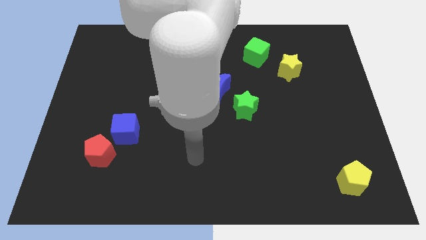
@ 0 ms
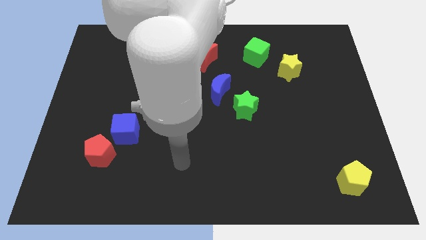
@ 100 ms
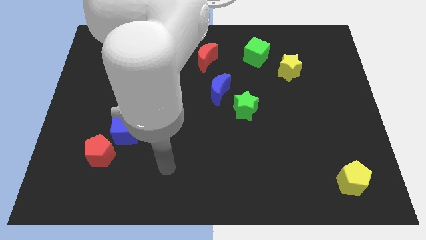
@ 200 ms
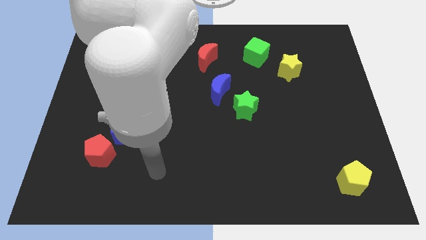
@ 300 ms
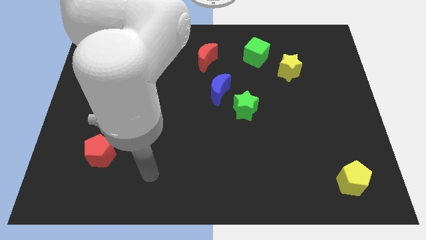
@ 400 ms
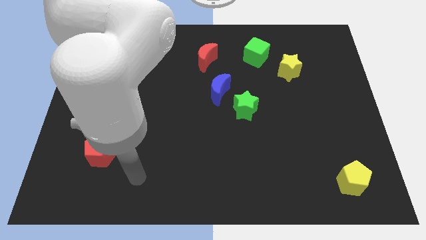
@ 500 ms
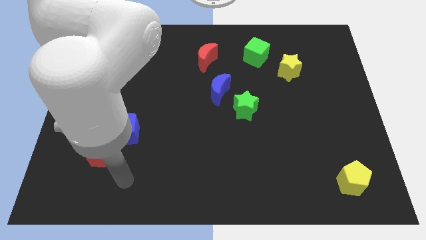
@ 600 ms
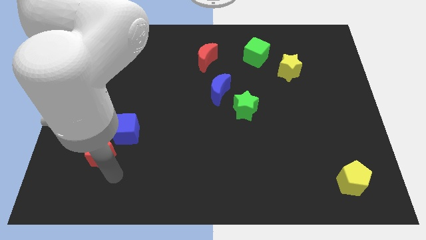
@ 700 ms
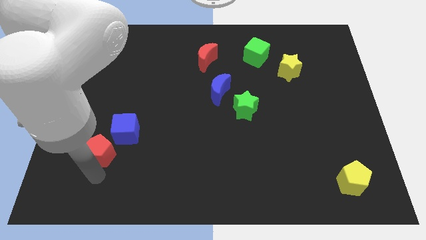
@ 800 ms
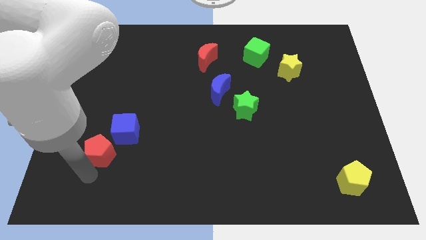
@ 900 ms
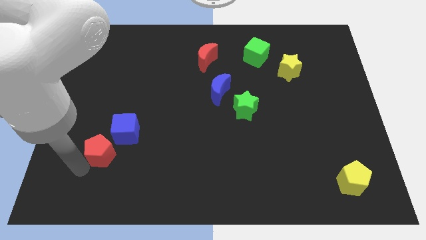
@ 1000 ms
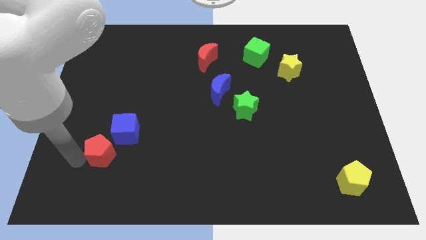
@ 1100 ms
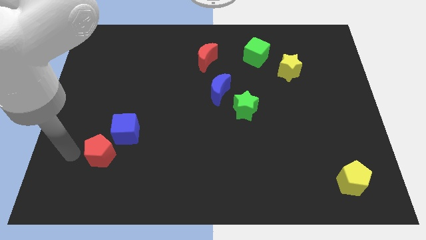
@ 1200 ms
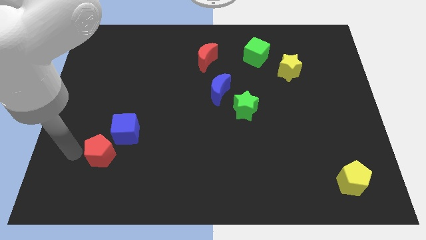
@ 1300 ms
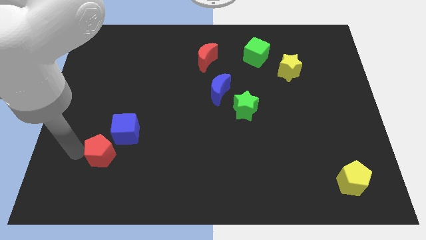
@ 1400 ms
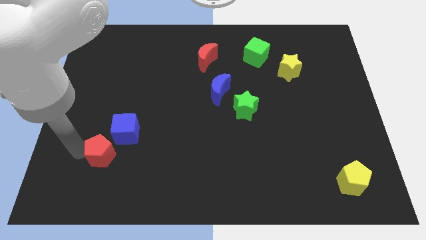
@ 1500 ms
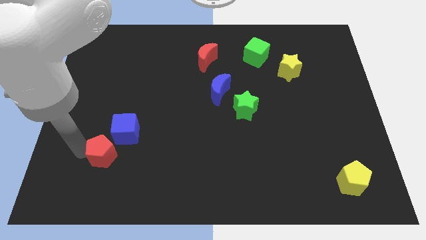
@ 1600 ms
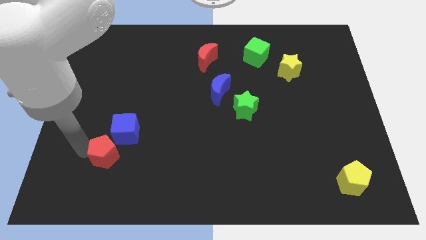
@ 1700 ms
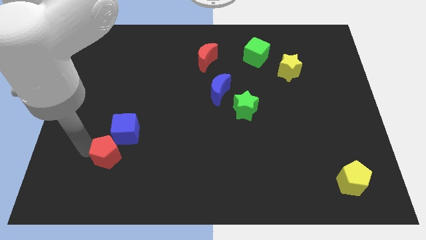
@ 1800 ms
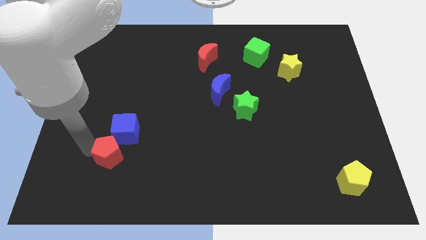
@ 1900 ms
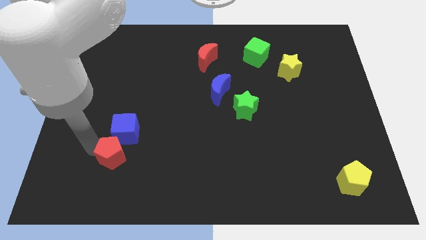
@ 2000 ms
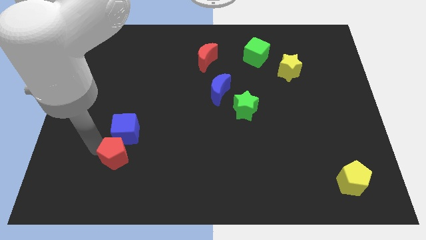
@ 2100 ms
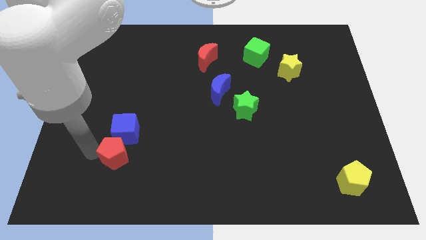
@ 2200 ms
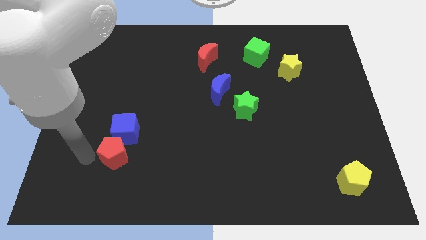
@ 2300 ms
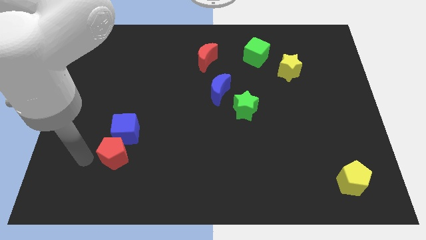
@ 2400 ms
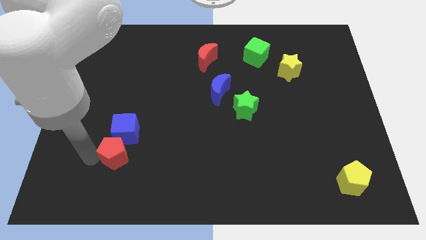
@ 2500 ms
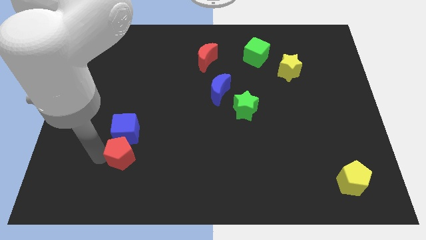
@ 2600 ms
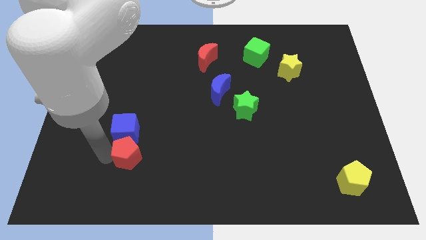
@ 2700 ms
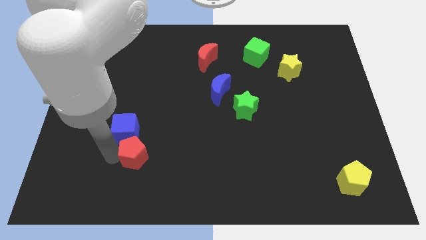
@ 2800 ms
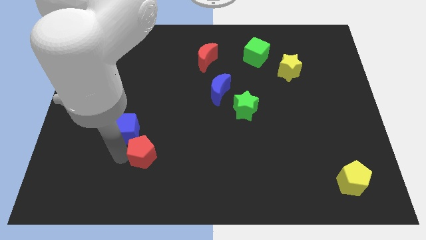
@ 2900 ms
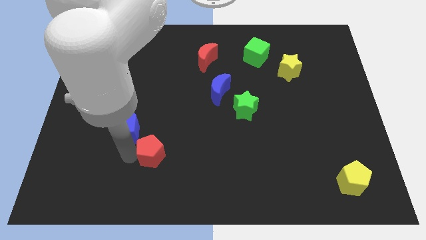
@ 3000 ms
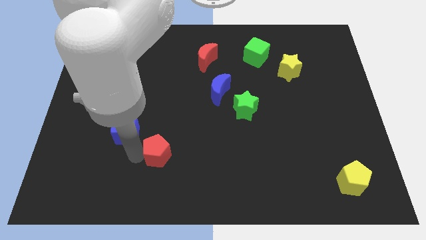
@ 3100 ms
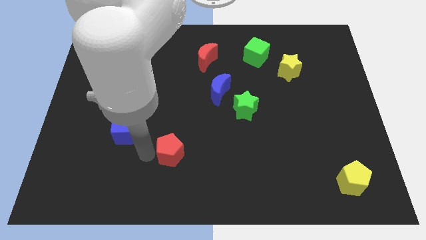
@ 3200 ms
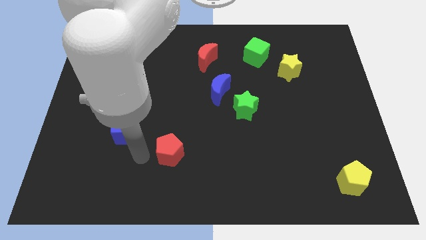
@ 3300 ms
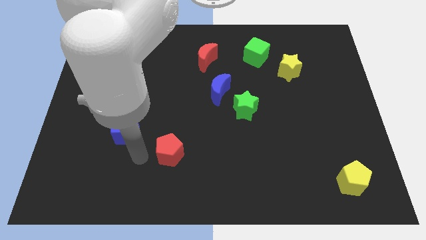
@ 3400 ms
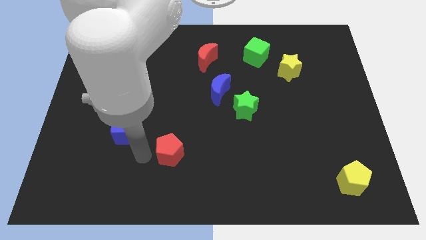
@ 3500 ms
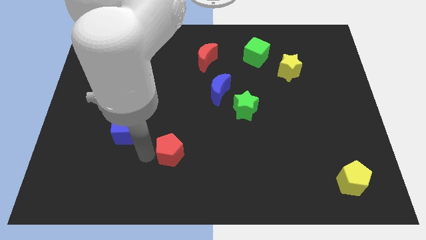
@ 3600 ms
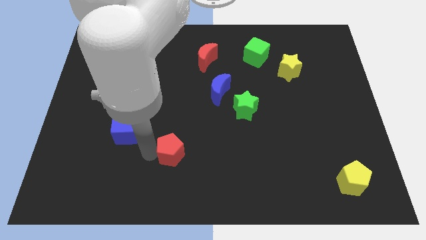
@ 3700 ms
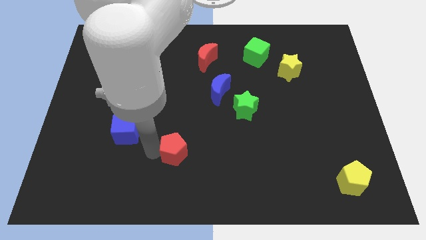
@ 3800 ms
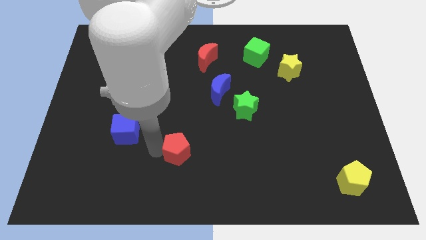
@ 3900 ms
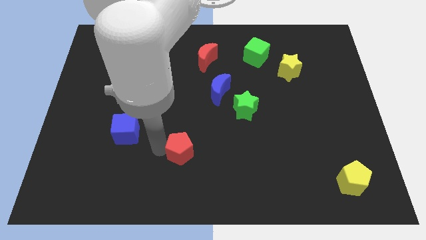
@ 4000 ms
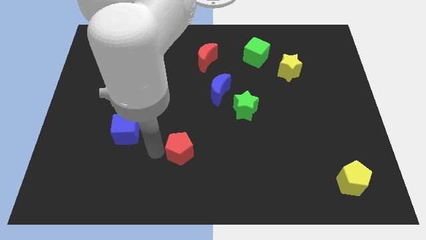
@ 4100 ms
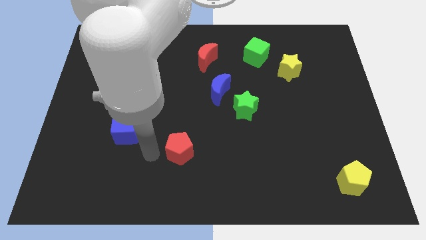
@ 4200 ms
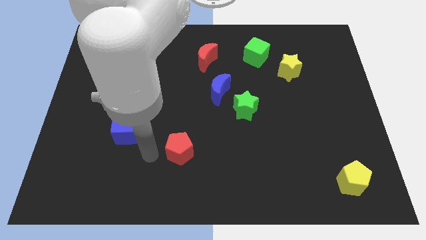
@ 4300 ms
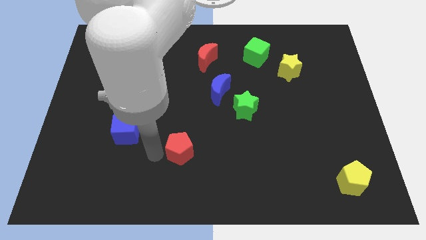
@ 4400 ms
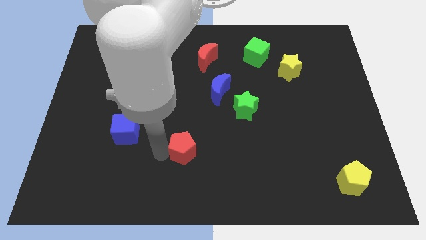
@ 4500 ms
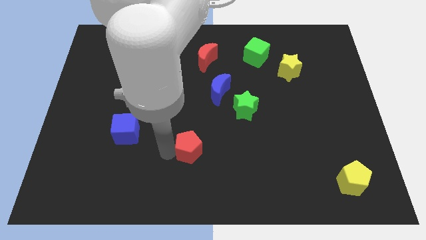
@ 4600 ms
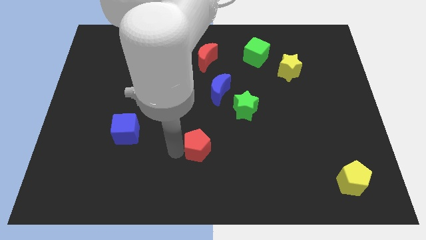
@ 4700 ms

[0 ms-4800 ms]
push the red pentagon right

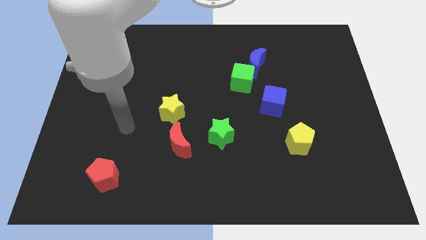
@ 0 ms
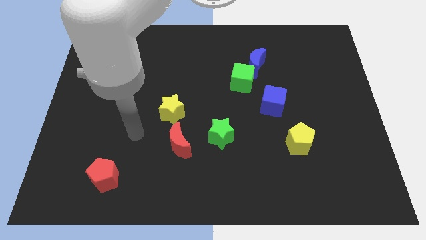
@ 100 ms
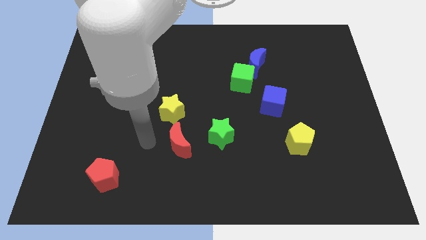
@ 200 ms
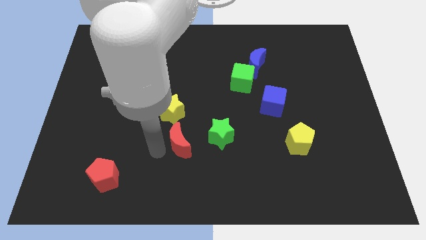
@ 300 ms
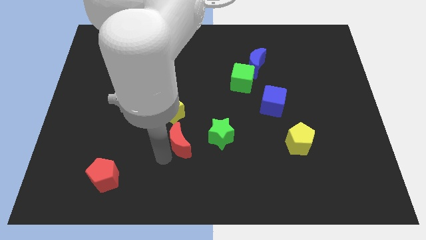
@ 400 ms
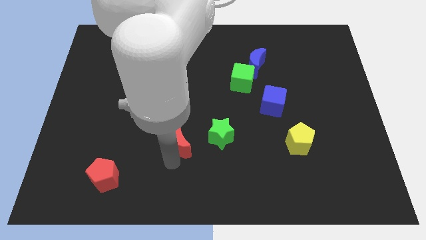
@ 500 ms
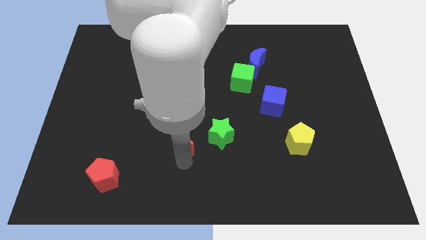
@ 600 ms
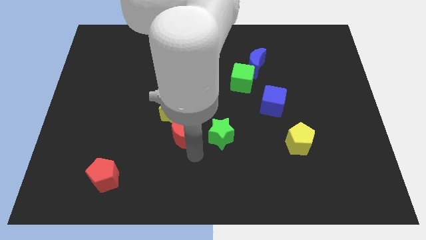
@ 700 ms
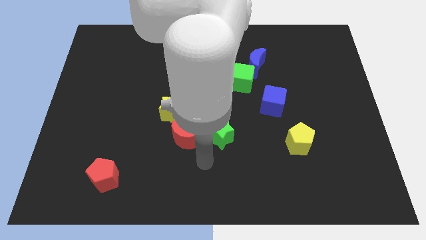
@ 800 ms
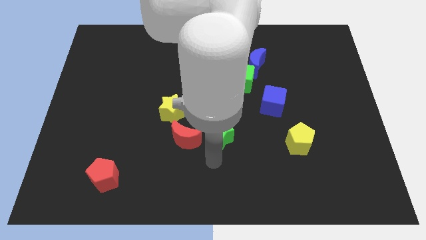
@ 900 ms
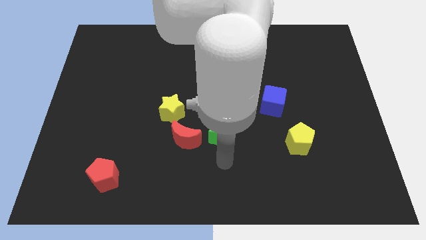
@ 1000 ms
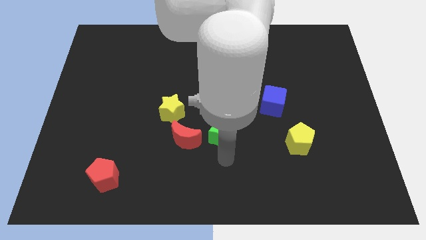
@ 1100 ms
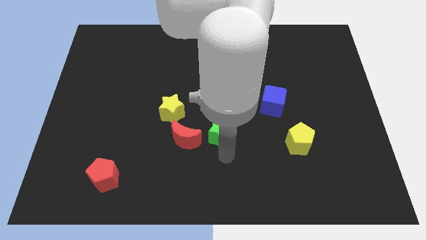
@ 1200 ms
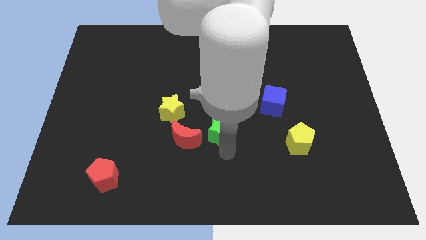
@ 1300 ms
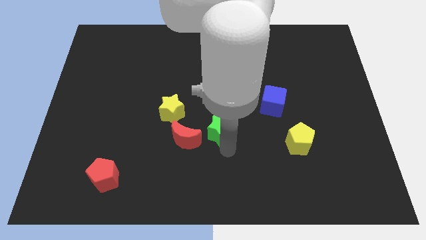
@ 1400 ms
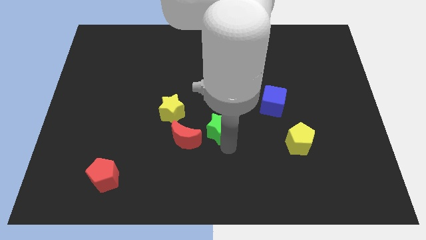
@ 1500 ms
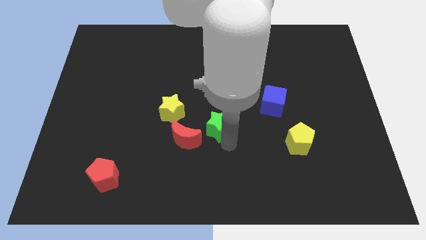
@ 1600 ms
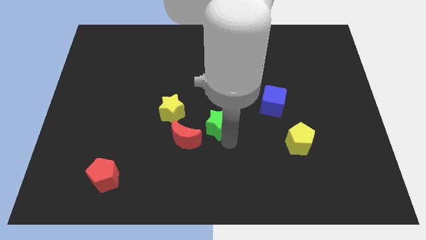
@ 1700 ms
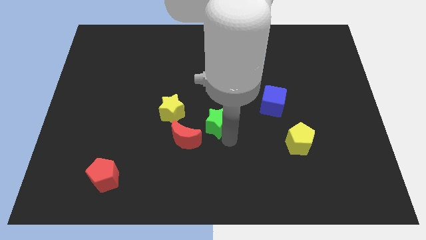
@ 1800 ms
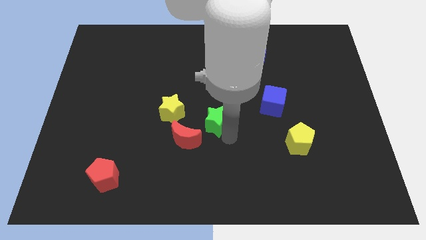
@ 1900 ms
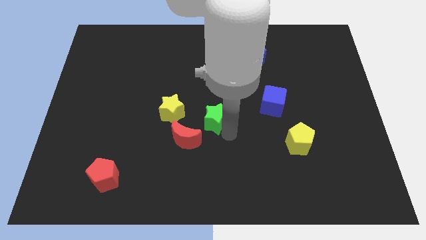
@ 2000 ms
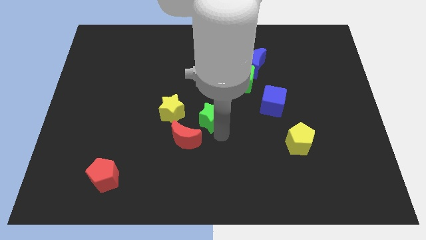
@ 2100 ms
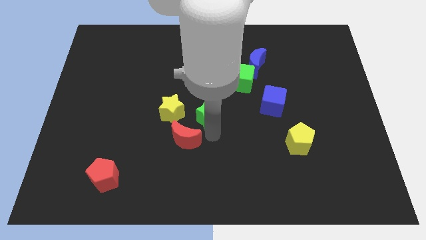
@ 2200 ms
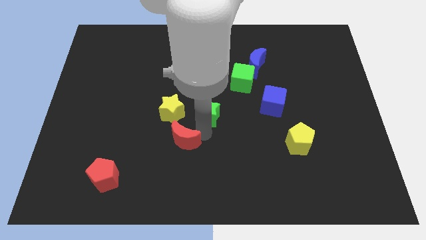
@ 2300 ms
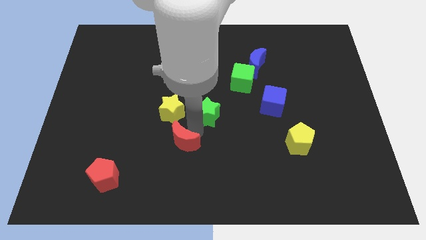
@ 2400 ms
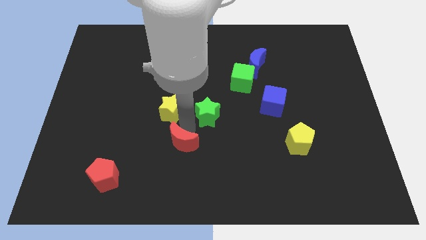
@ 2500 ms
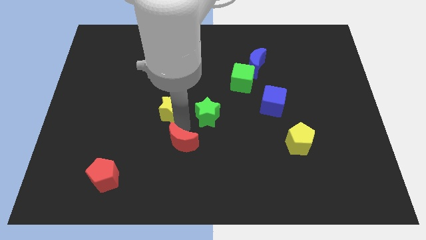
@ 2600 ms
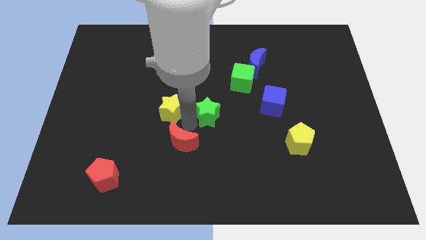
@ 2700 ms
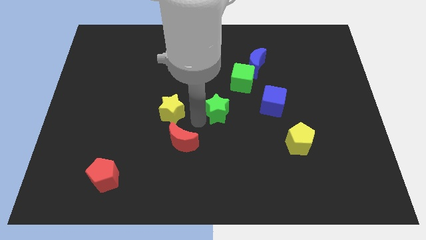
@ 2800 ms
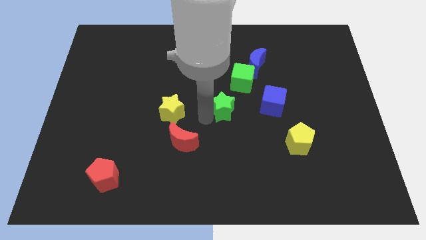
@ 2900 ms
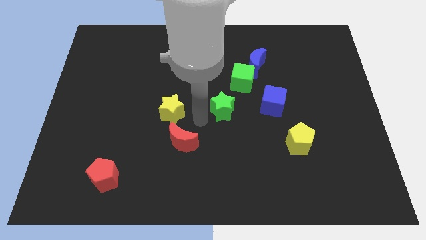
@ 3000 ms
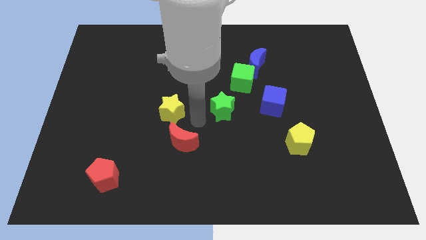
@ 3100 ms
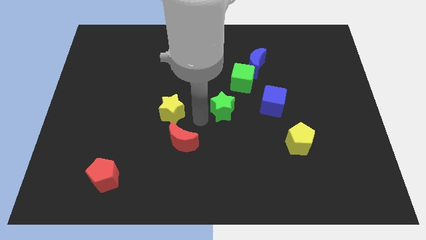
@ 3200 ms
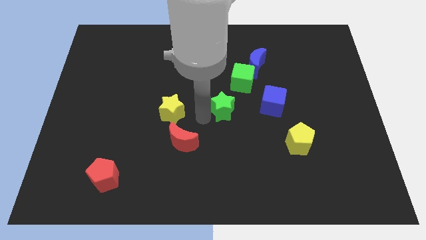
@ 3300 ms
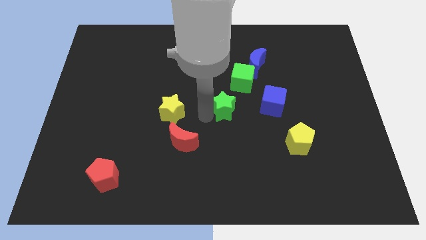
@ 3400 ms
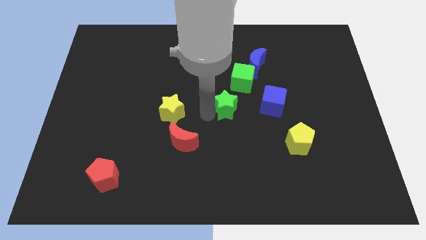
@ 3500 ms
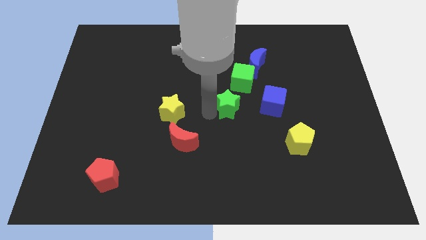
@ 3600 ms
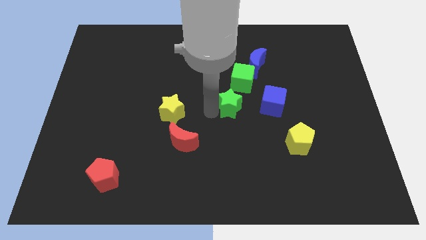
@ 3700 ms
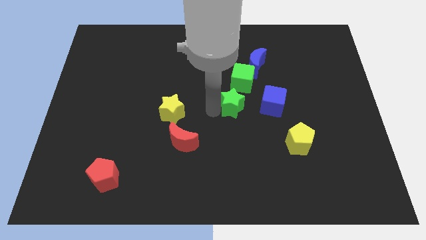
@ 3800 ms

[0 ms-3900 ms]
push the green star upwards and right diagonally slightly
